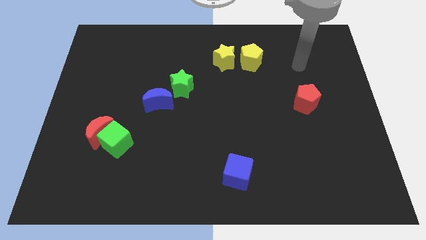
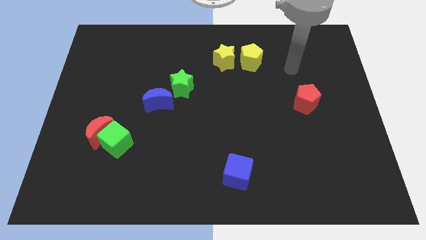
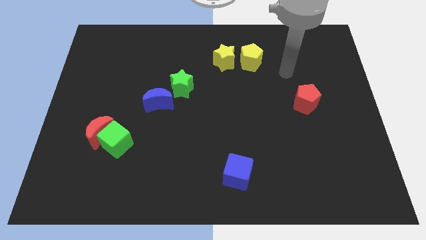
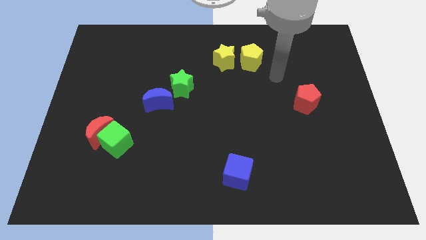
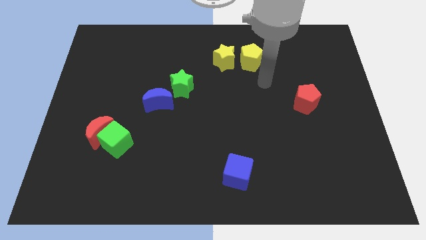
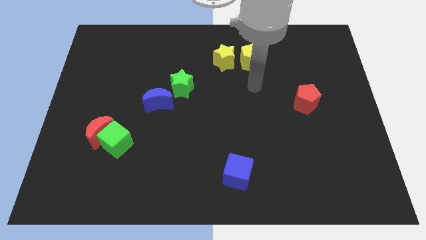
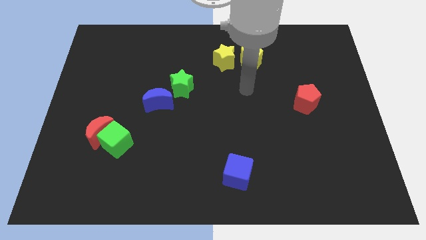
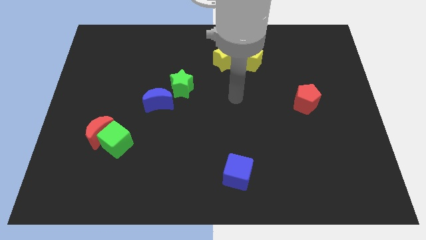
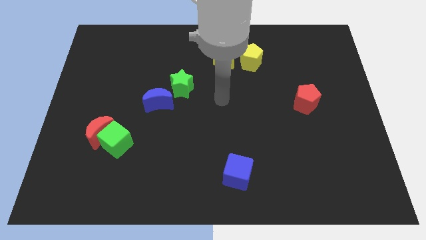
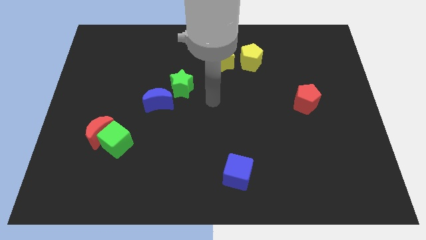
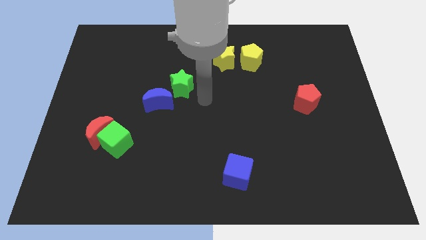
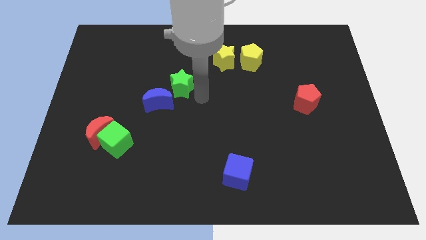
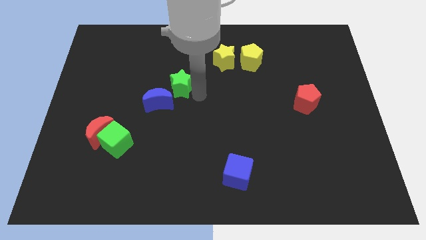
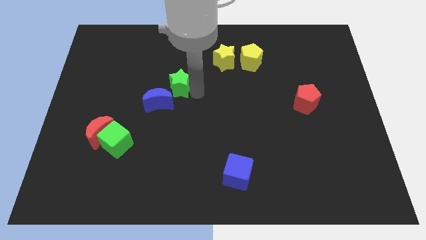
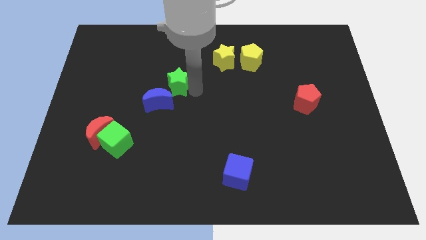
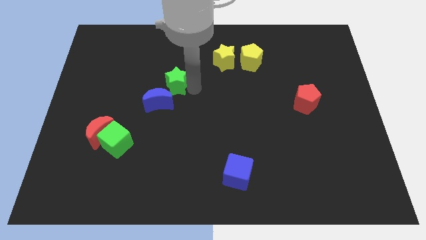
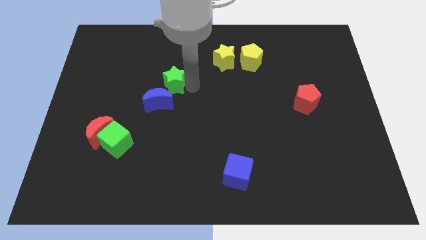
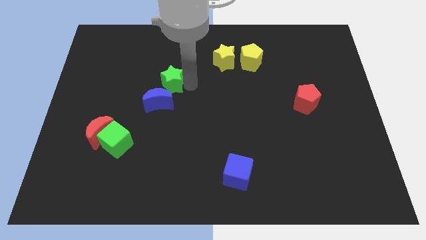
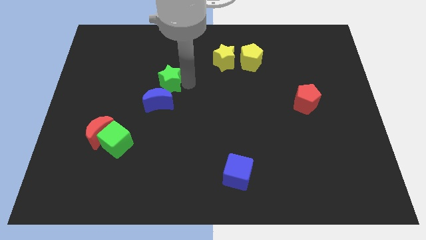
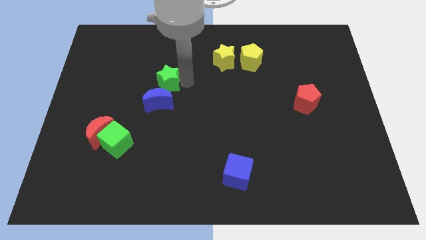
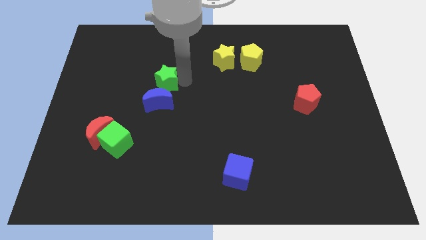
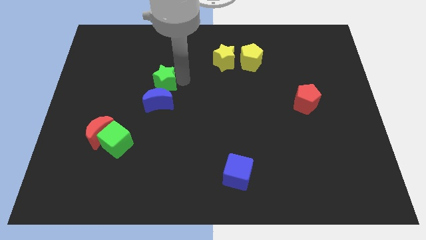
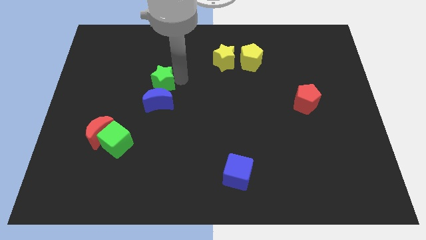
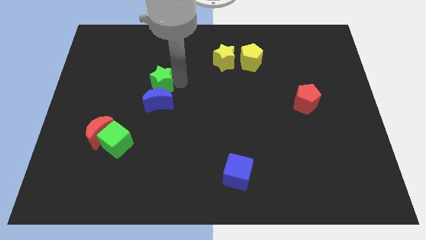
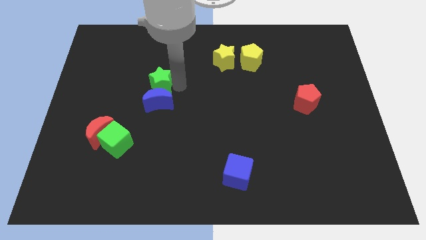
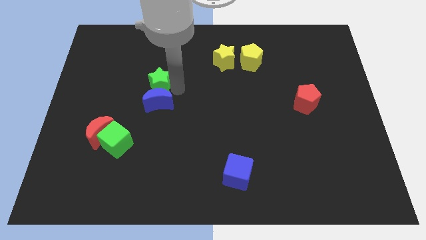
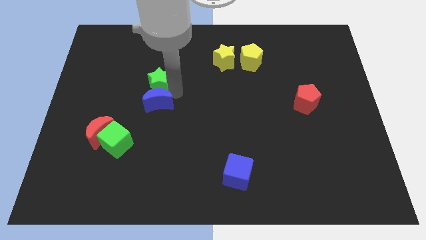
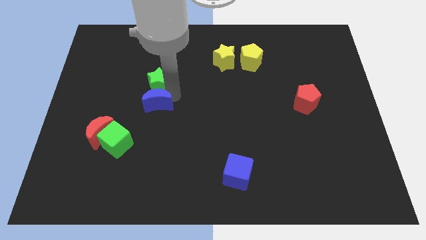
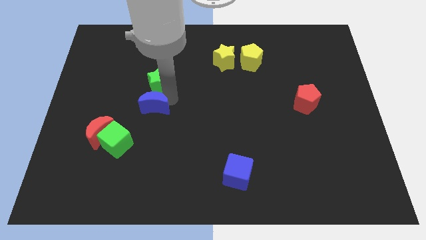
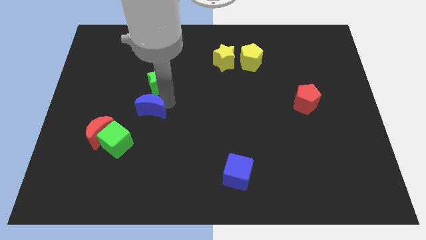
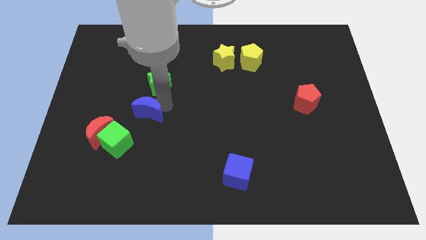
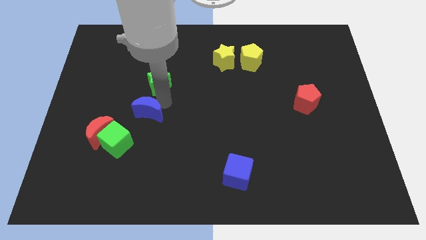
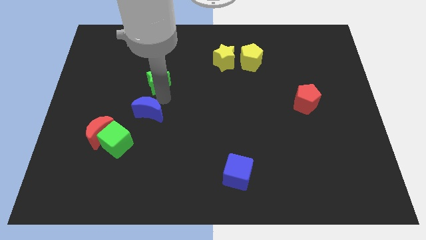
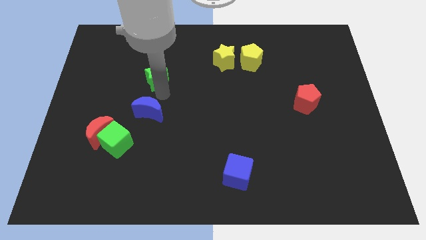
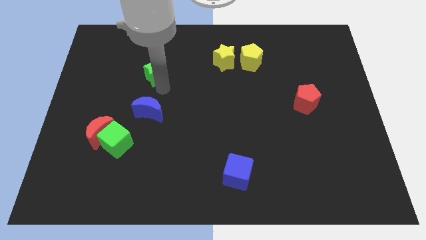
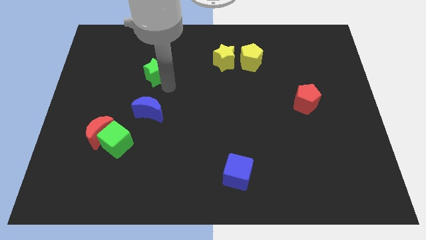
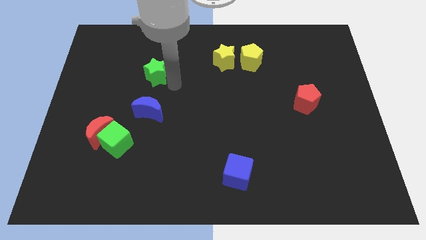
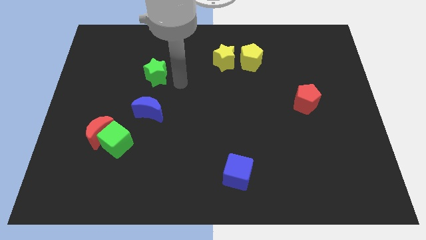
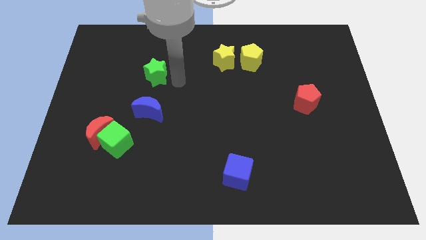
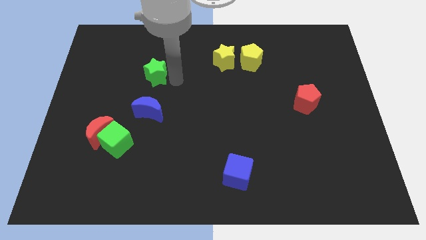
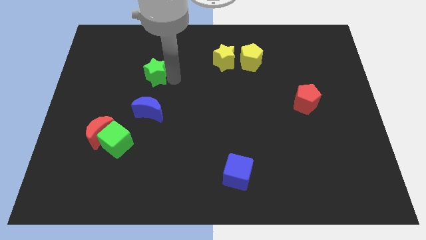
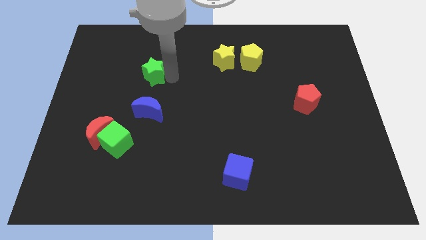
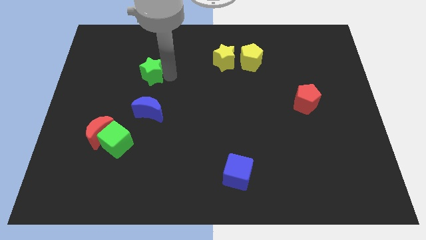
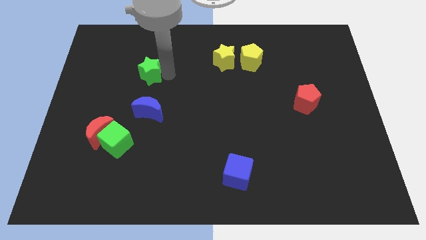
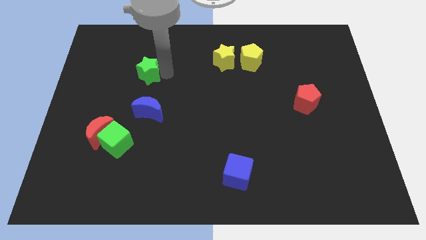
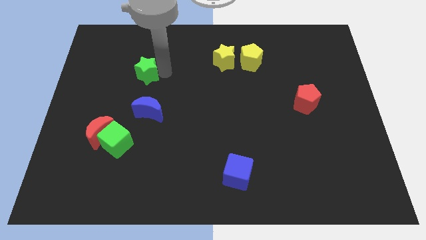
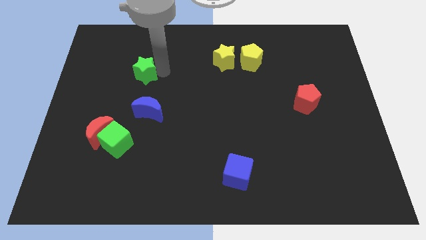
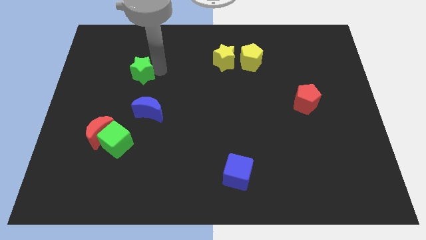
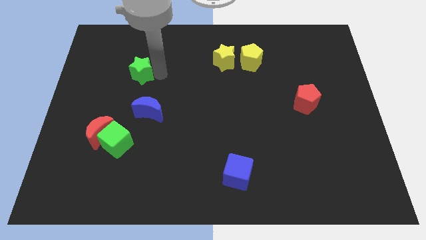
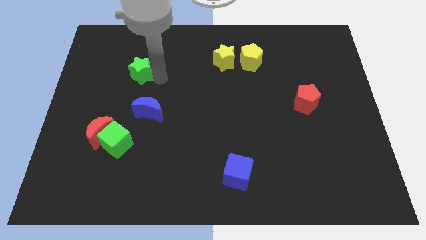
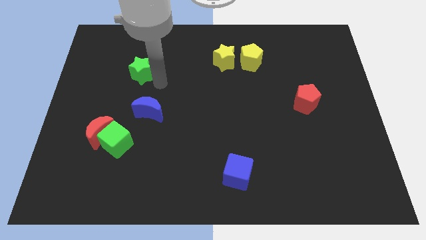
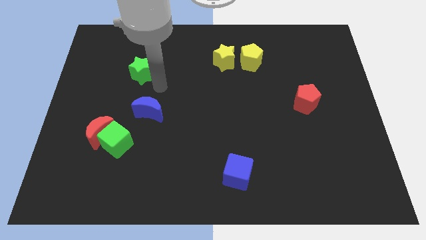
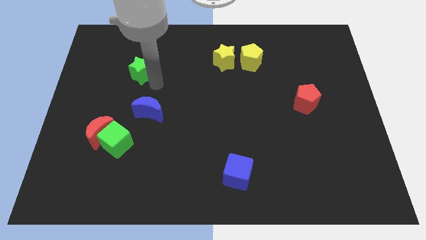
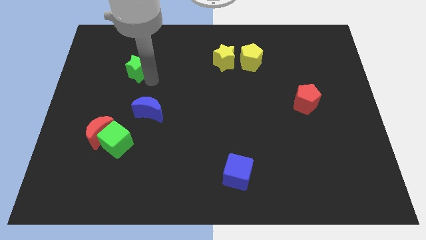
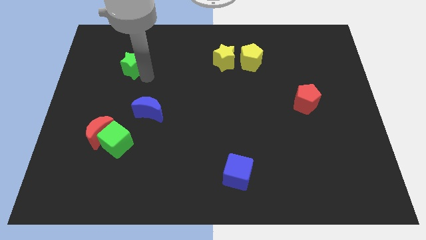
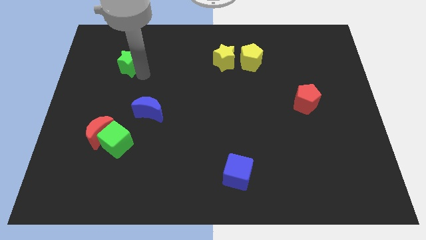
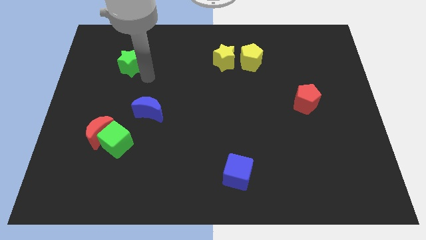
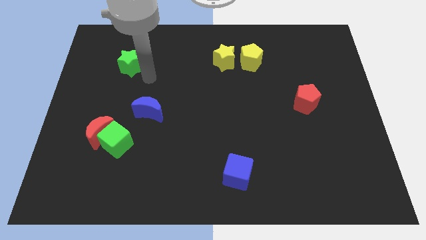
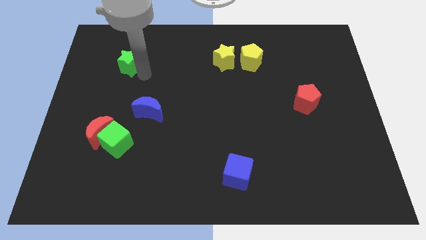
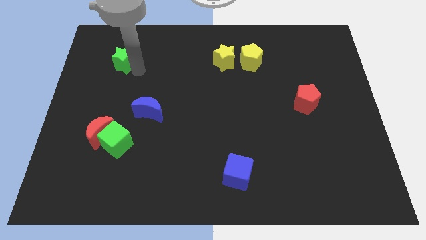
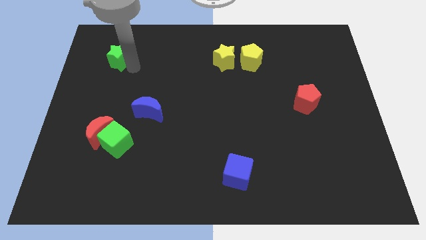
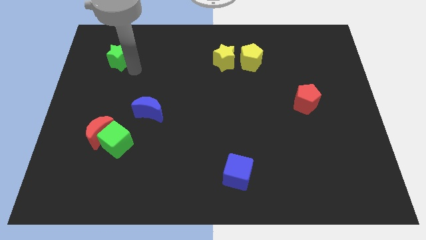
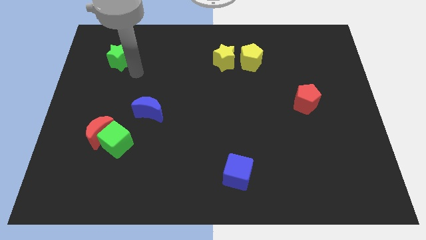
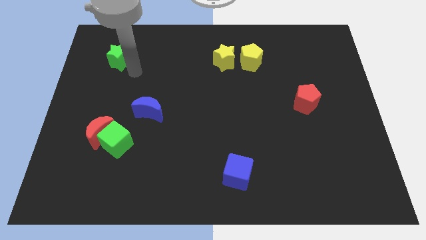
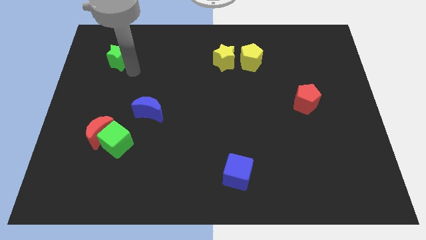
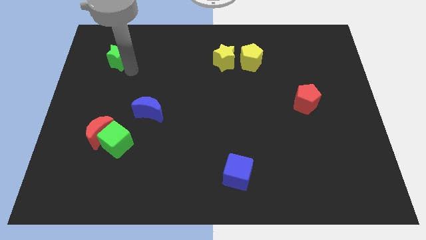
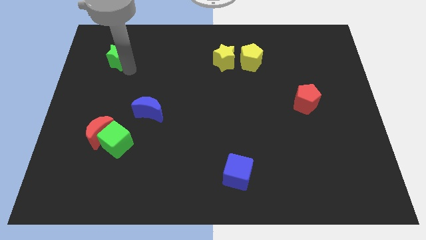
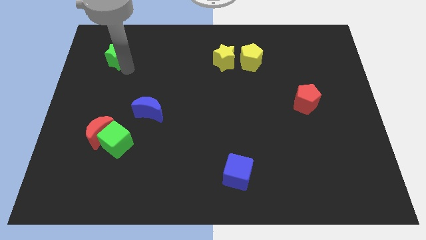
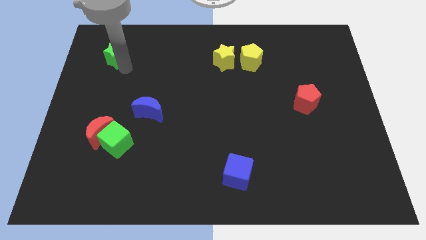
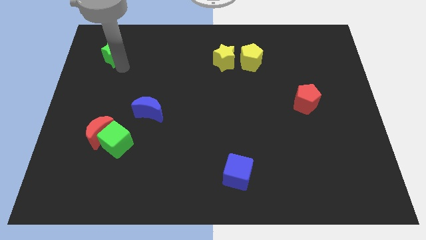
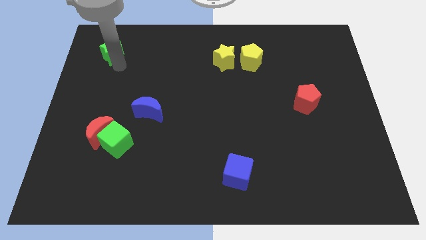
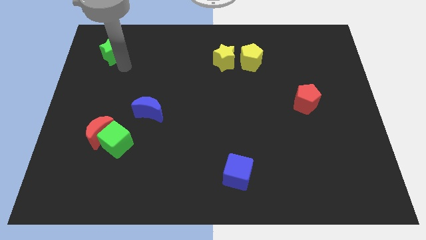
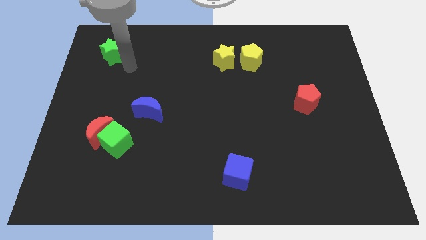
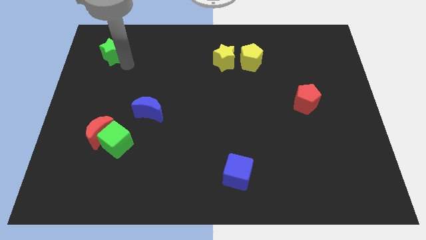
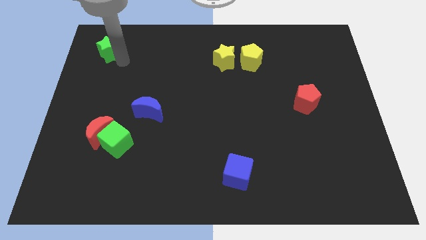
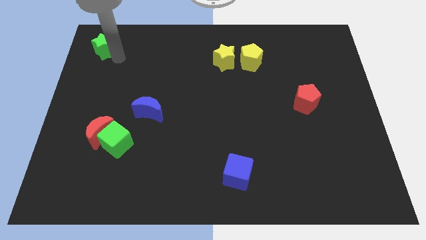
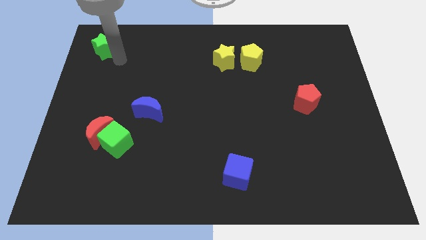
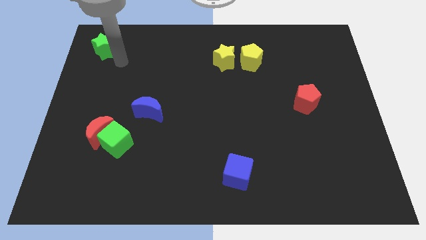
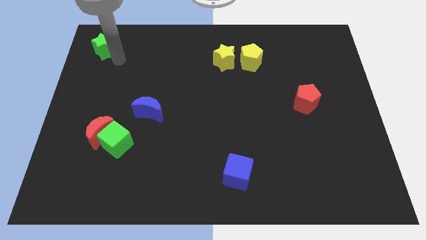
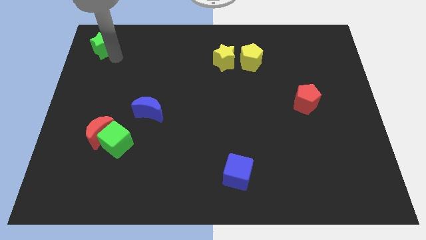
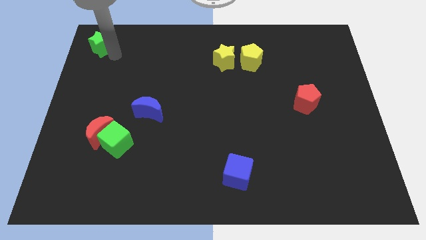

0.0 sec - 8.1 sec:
move the green star to the top left
